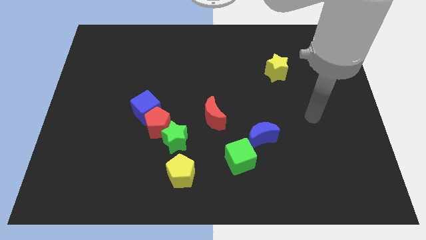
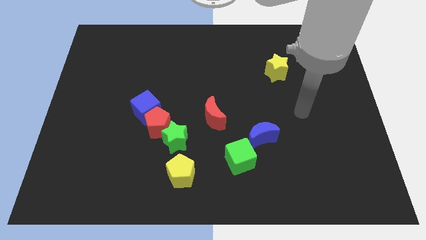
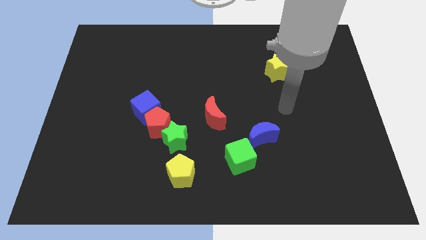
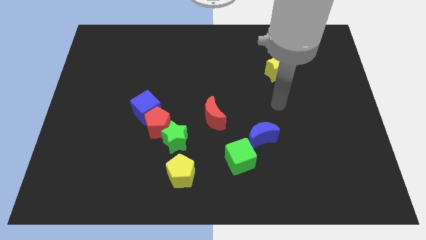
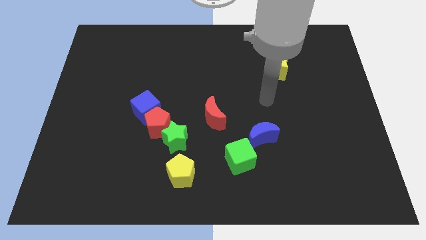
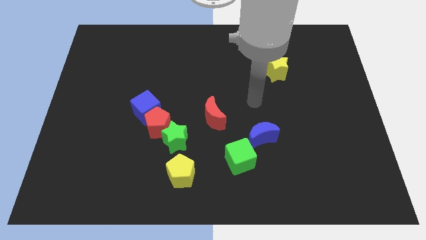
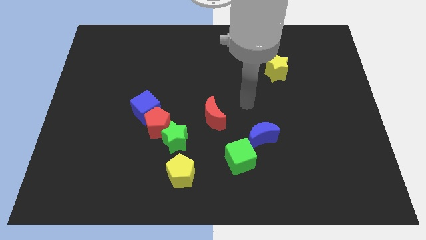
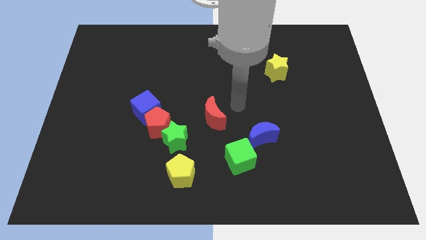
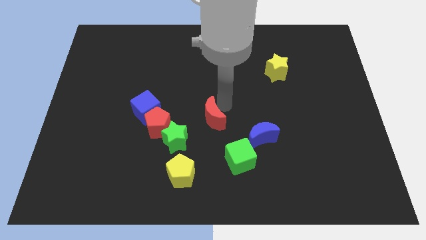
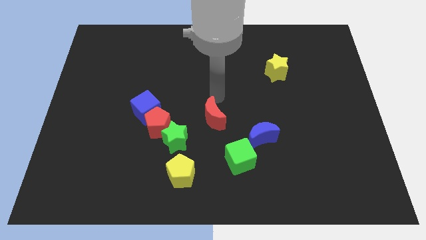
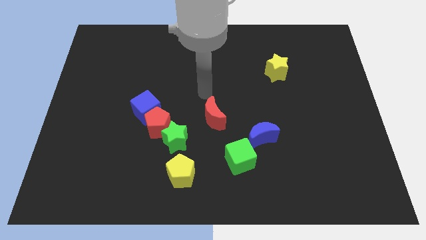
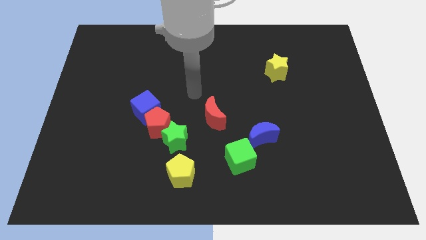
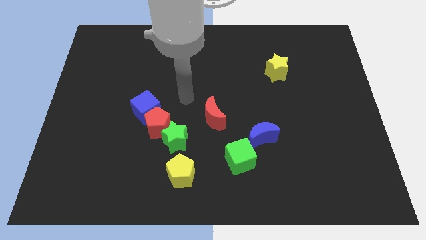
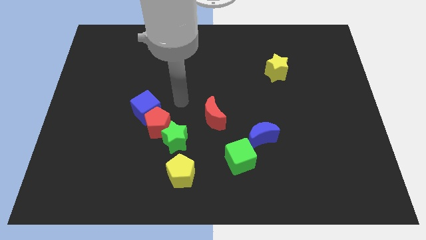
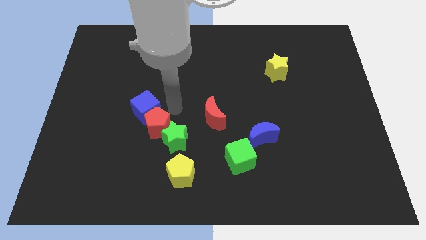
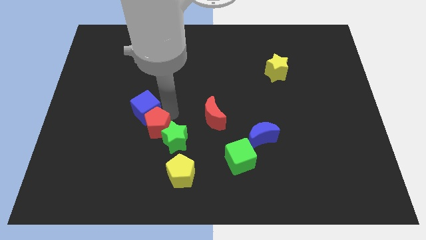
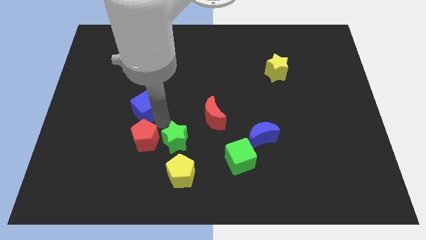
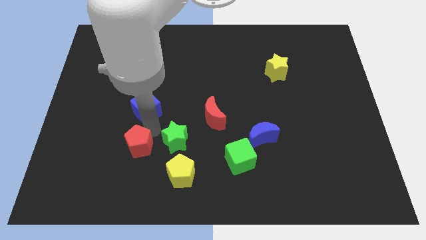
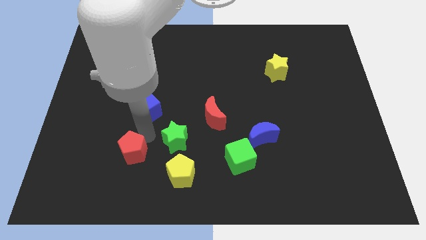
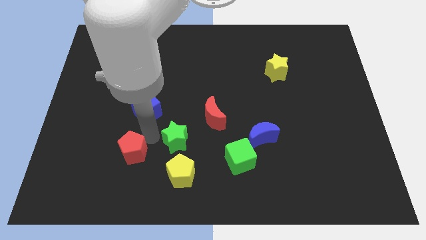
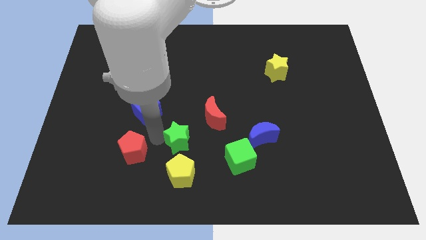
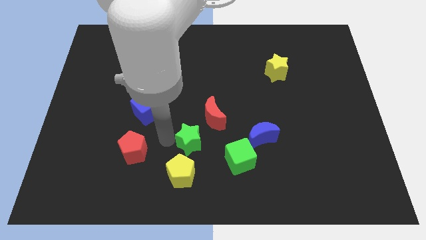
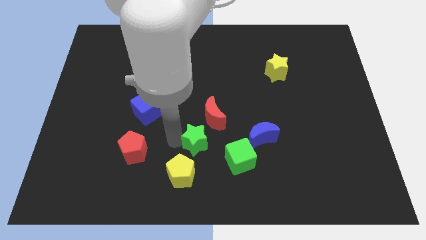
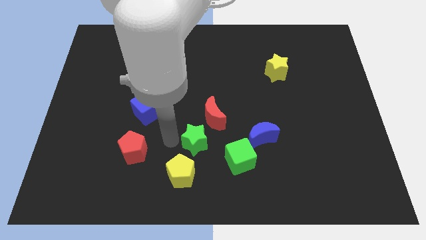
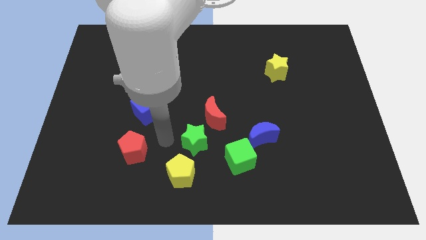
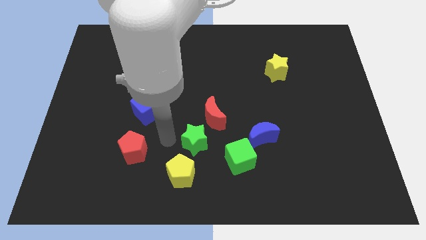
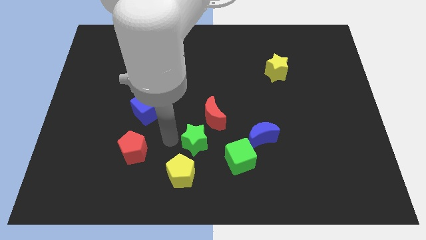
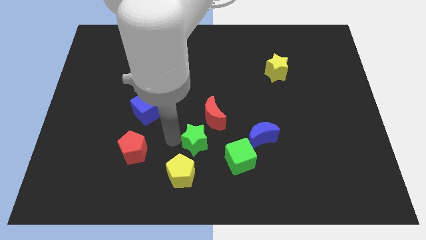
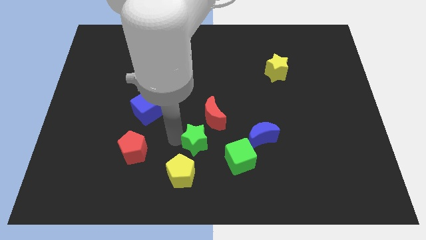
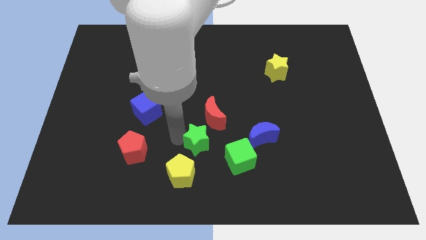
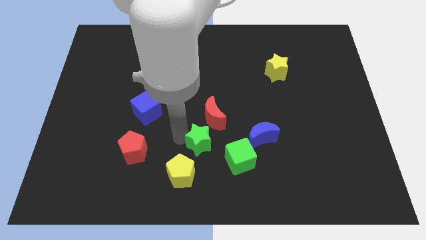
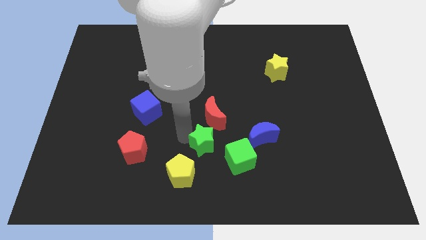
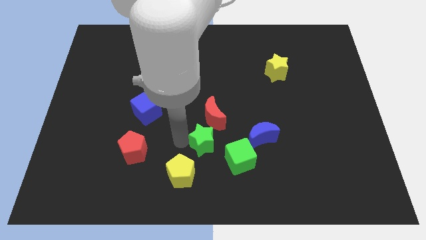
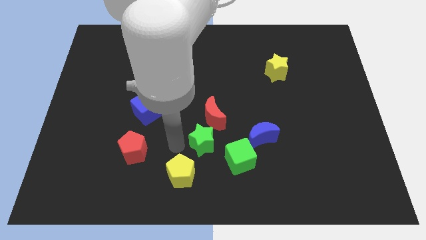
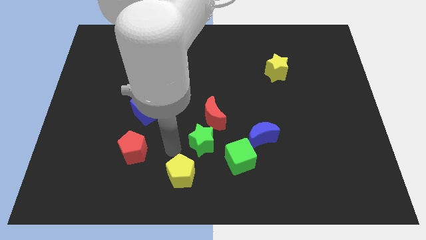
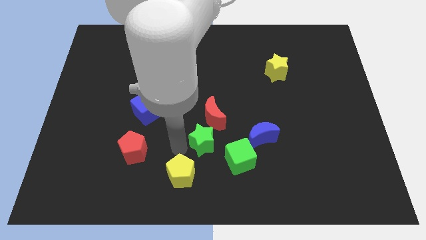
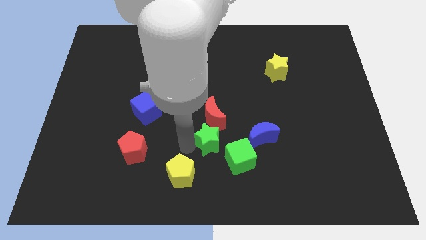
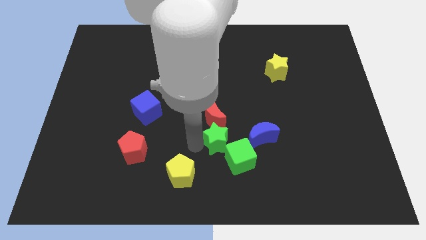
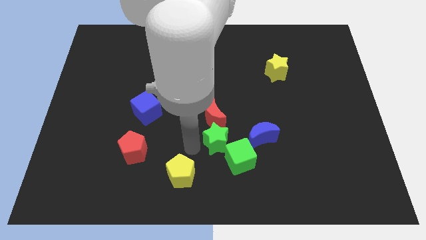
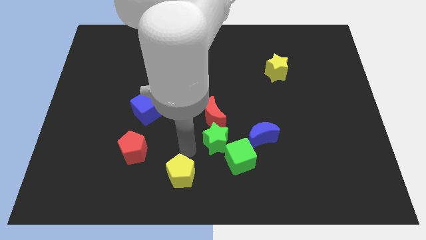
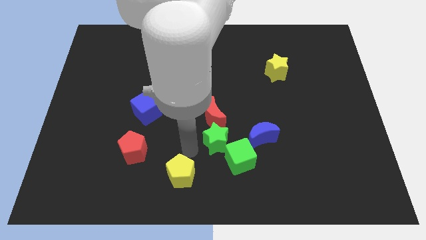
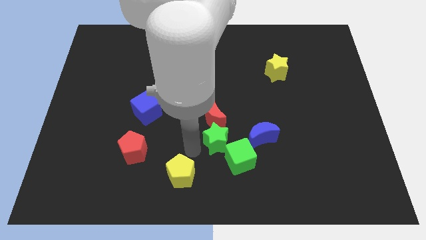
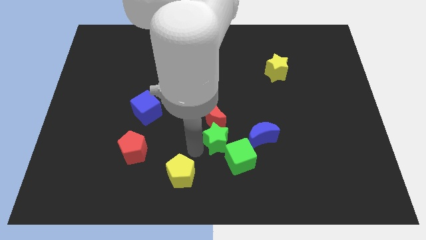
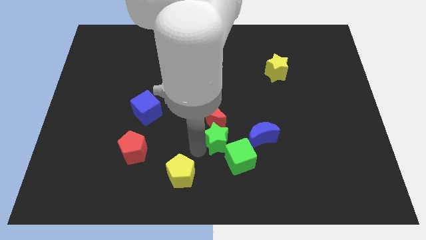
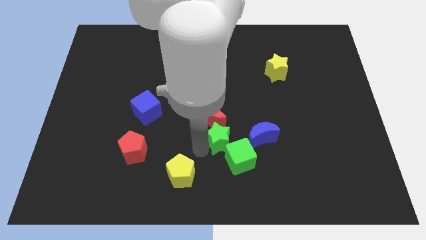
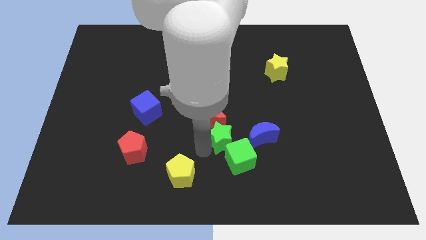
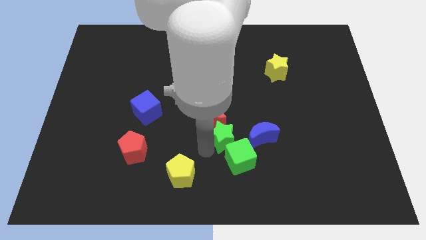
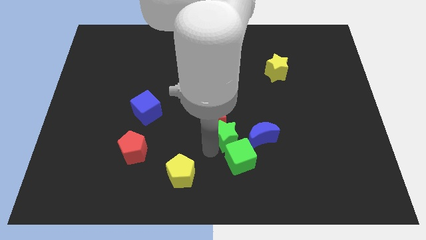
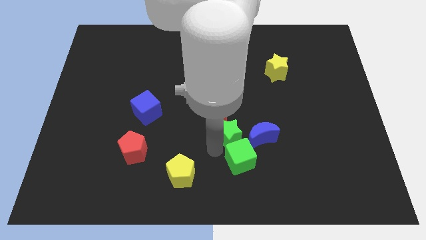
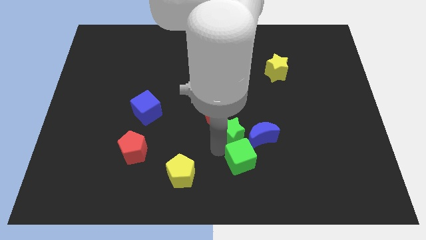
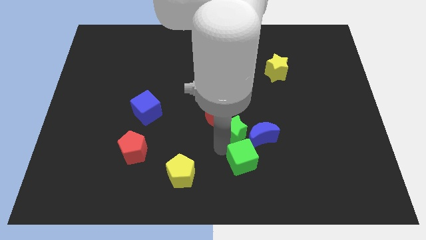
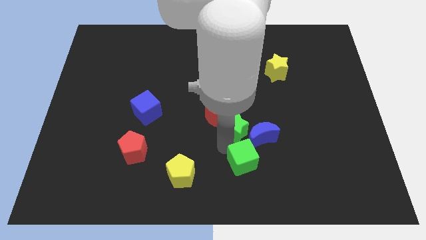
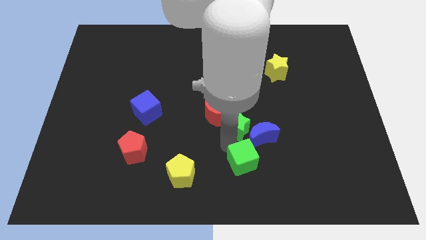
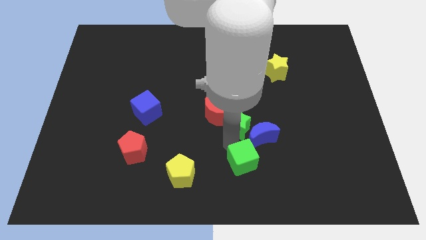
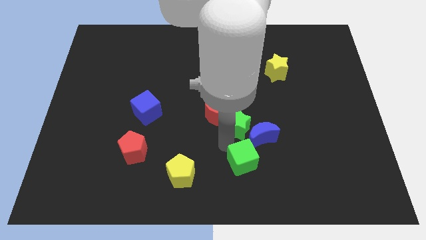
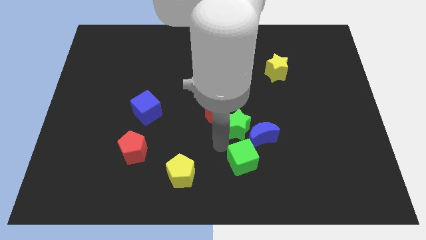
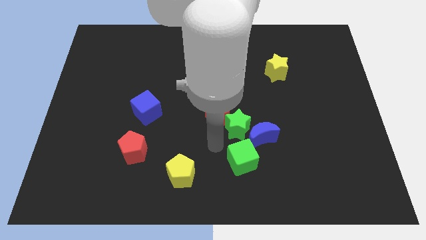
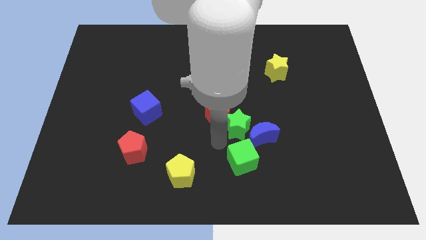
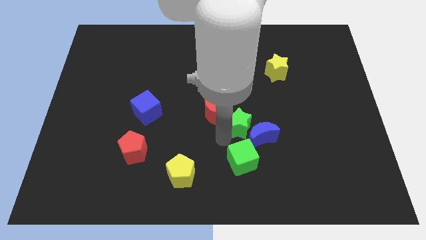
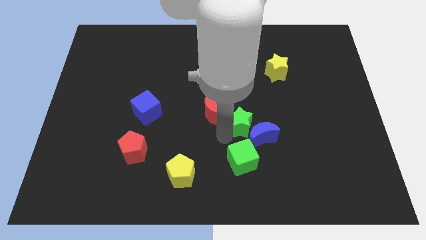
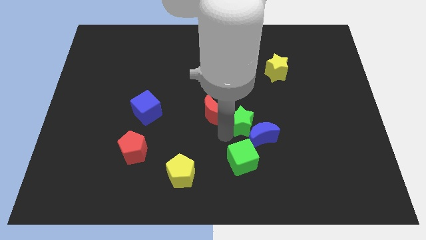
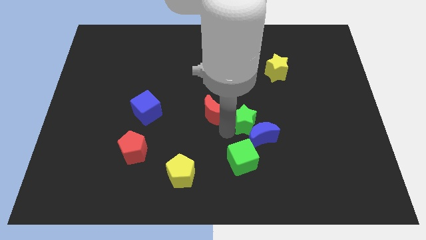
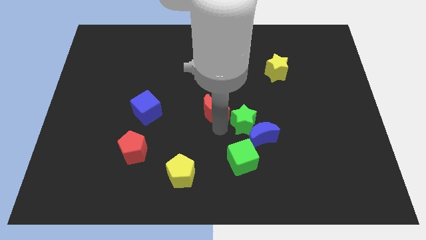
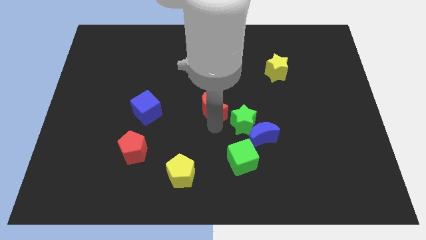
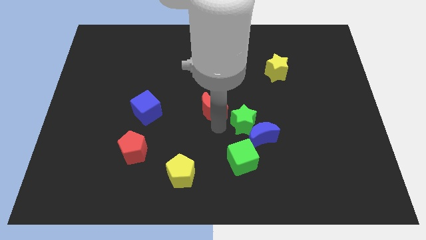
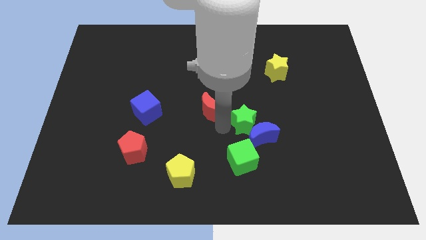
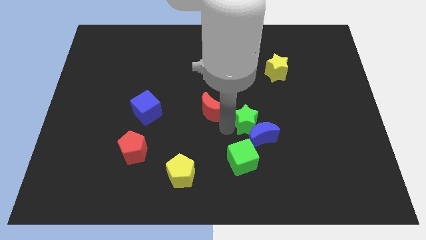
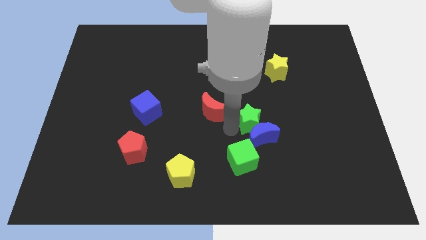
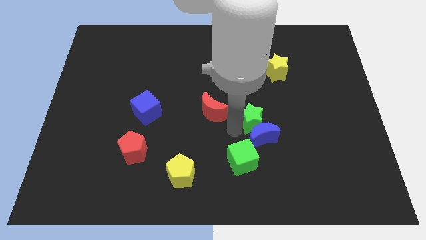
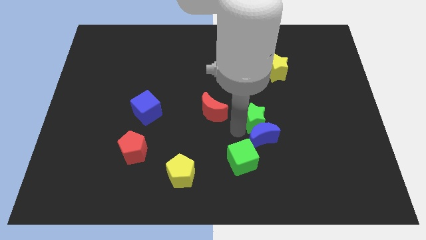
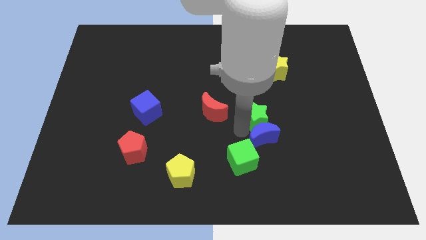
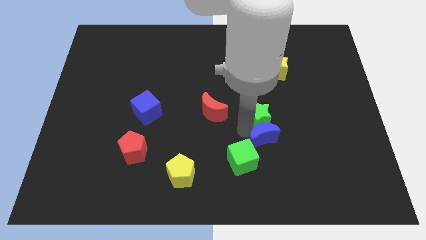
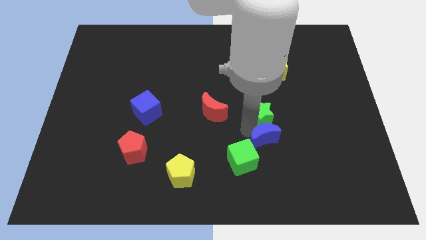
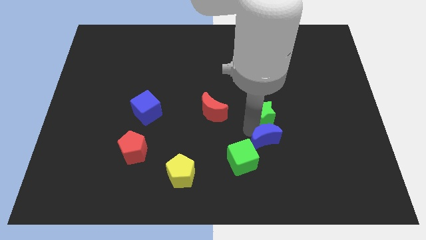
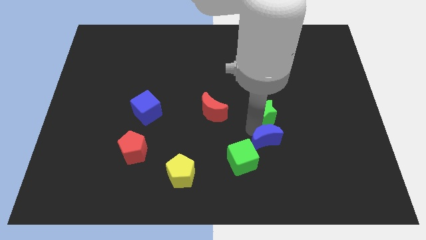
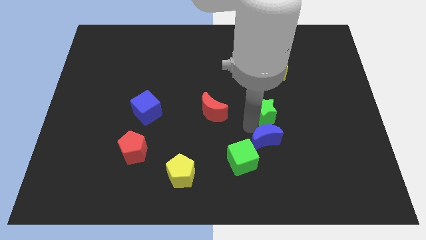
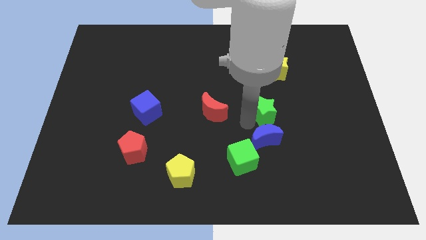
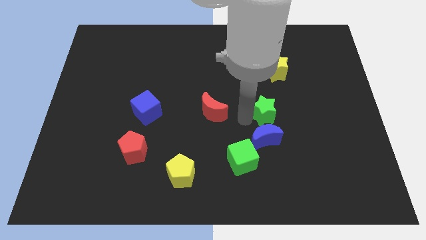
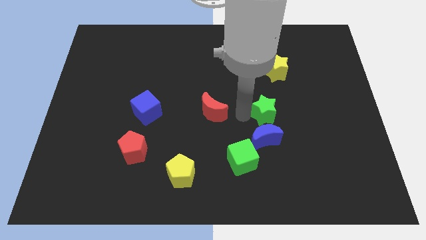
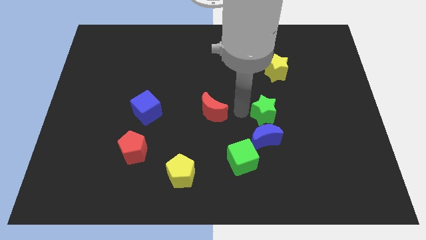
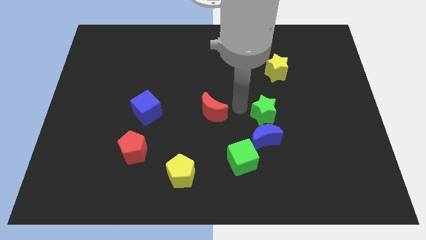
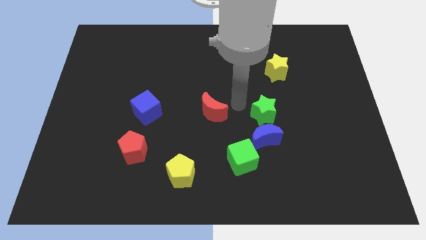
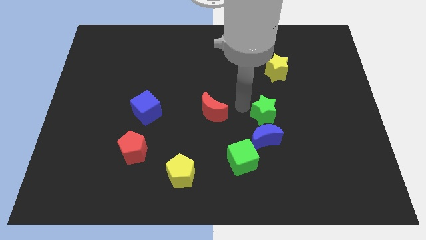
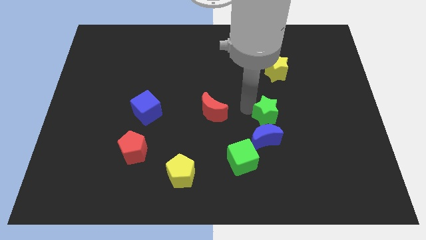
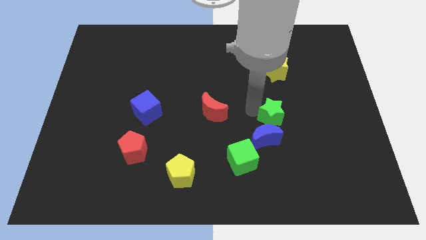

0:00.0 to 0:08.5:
slide the green star to the right
